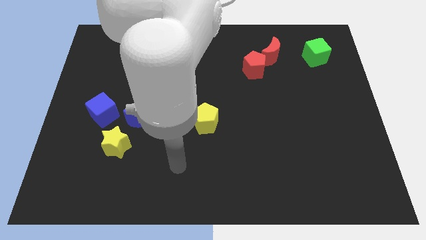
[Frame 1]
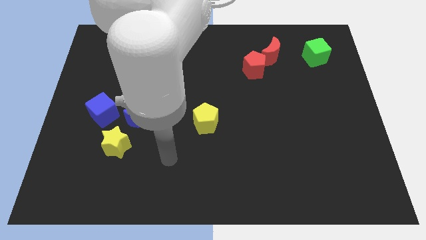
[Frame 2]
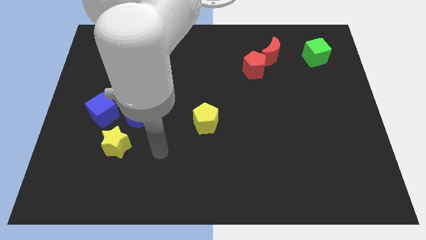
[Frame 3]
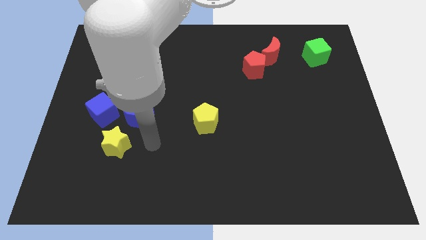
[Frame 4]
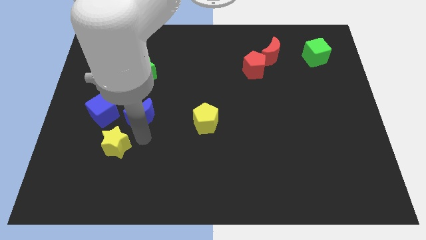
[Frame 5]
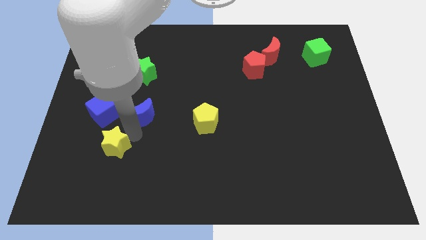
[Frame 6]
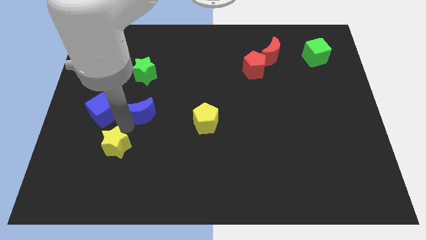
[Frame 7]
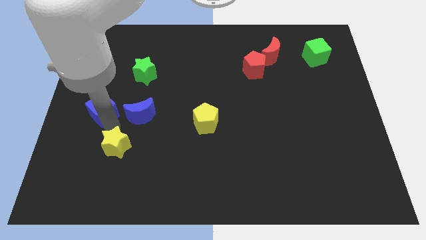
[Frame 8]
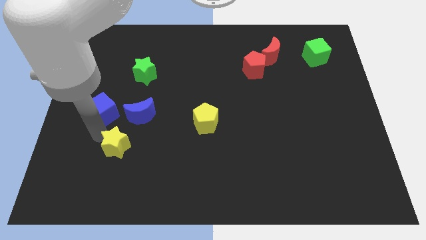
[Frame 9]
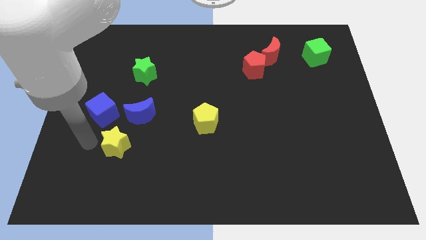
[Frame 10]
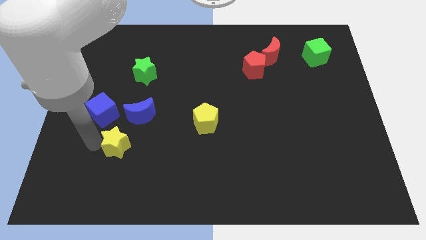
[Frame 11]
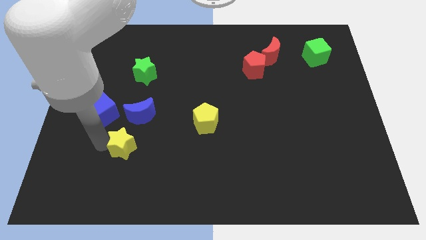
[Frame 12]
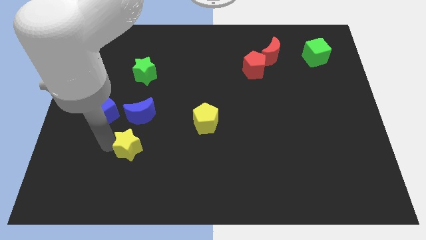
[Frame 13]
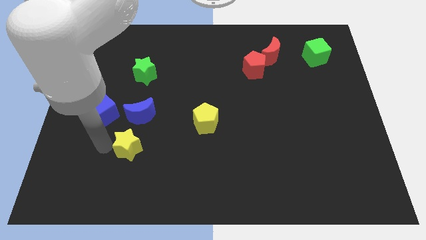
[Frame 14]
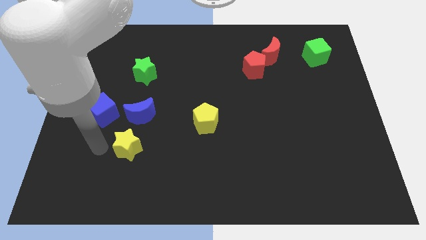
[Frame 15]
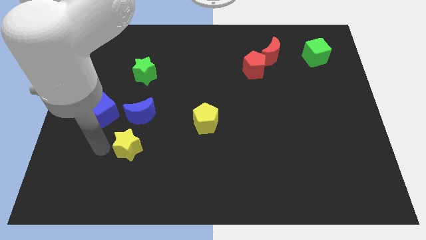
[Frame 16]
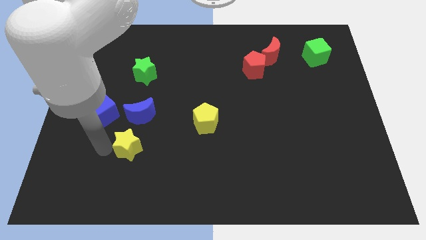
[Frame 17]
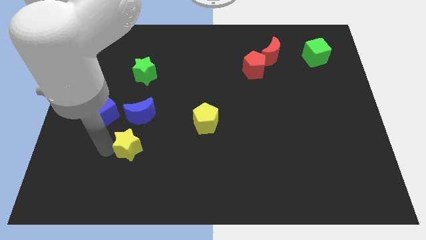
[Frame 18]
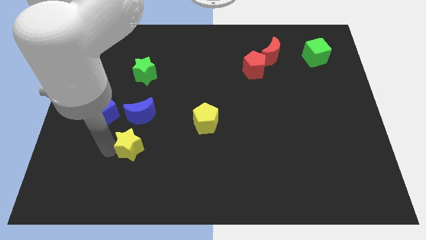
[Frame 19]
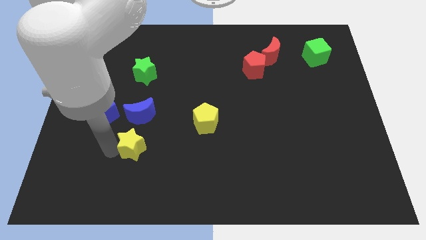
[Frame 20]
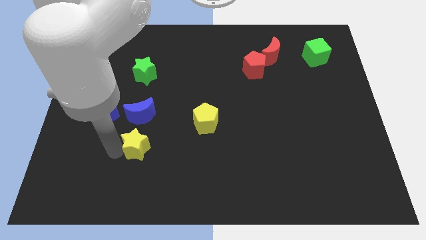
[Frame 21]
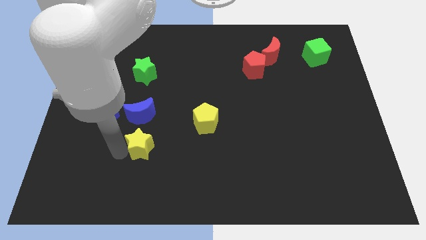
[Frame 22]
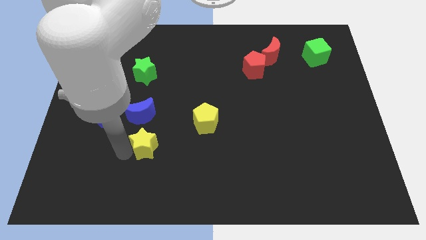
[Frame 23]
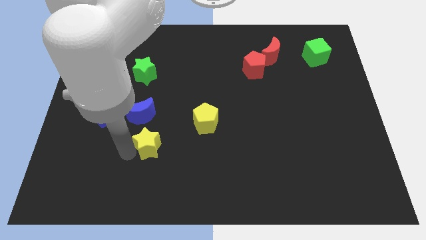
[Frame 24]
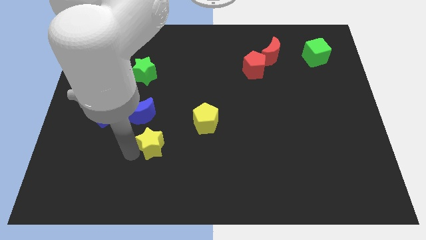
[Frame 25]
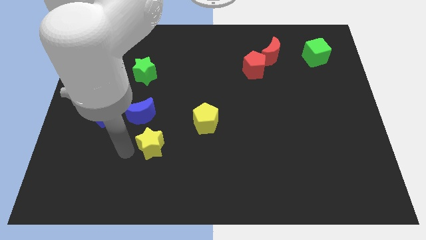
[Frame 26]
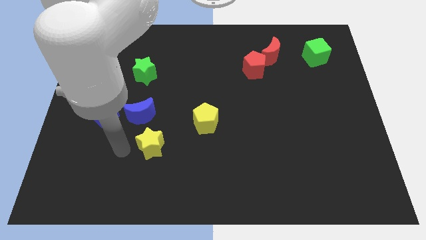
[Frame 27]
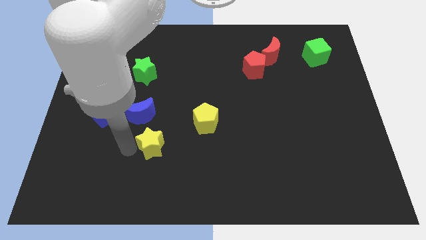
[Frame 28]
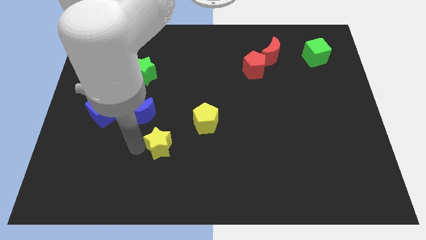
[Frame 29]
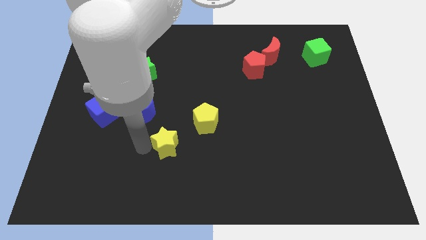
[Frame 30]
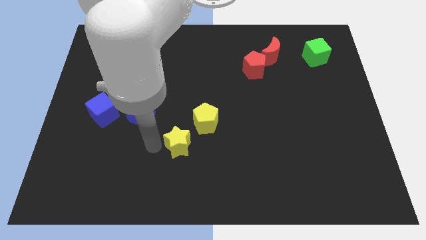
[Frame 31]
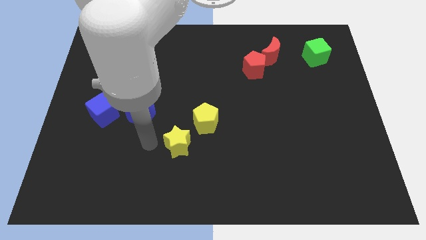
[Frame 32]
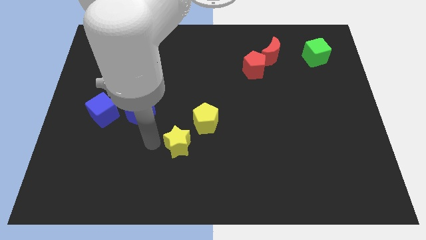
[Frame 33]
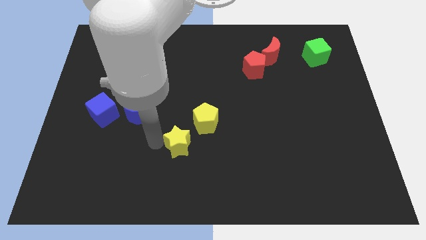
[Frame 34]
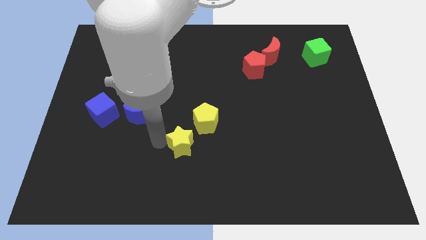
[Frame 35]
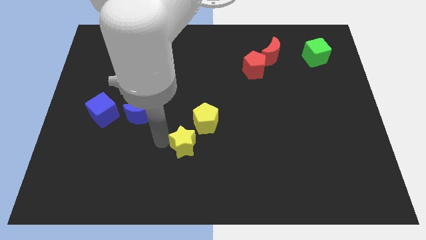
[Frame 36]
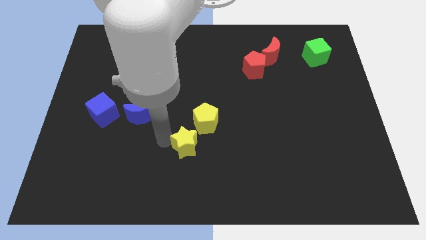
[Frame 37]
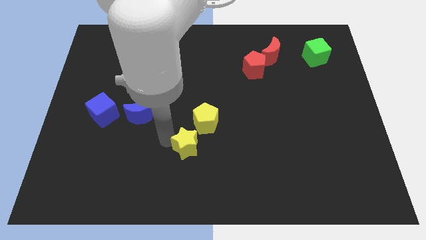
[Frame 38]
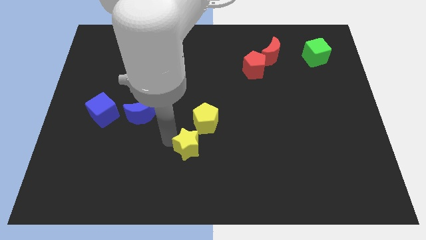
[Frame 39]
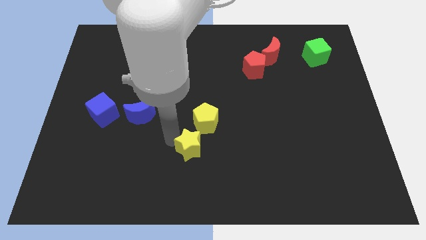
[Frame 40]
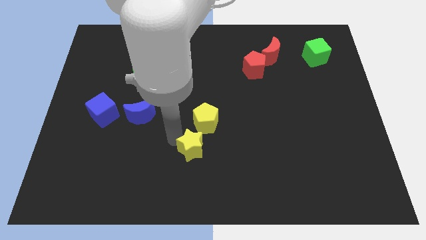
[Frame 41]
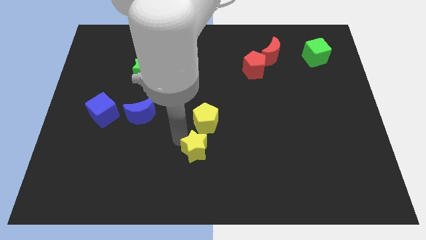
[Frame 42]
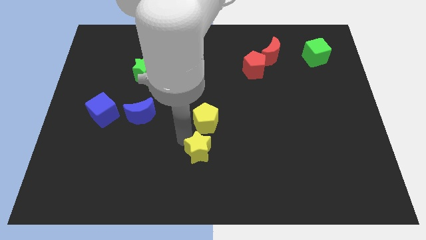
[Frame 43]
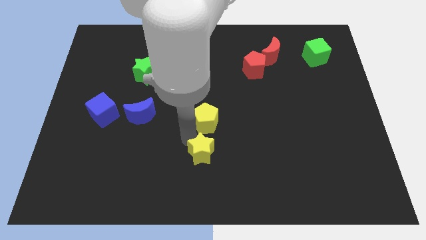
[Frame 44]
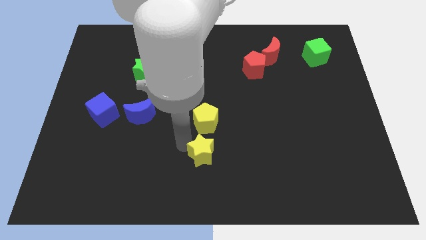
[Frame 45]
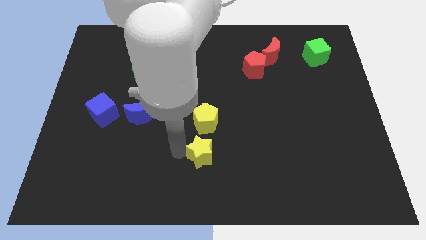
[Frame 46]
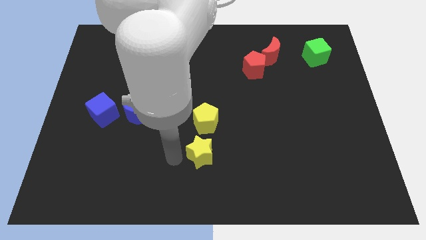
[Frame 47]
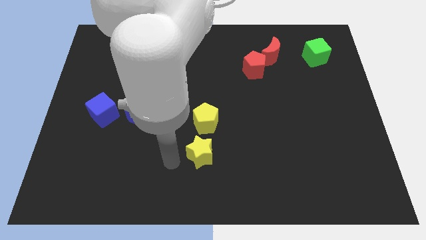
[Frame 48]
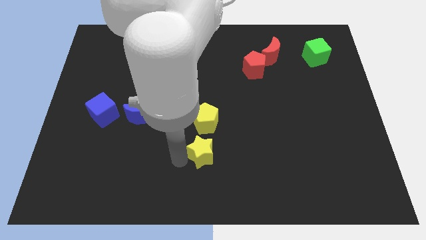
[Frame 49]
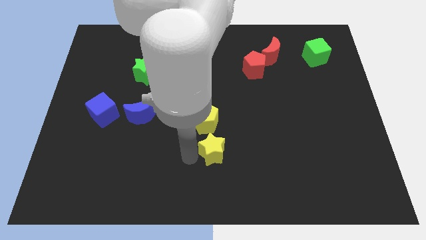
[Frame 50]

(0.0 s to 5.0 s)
push the yellow star right

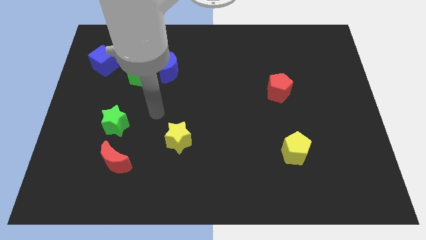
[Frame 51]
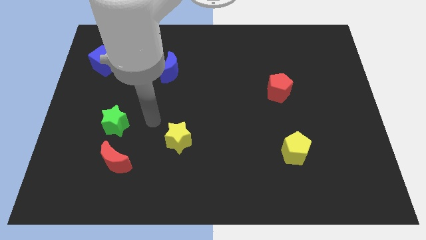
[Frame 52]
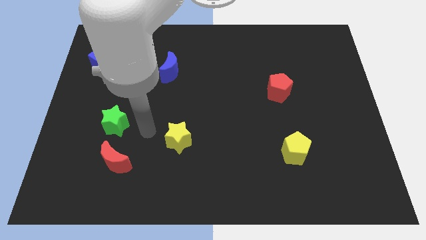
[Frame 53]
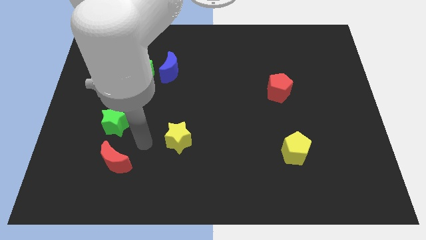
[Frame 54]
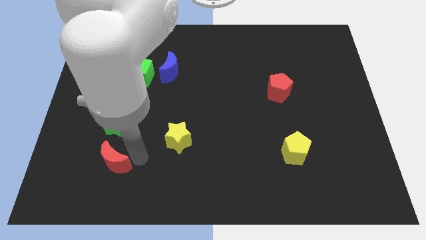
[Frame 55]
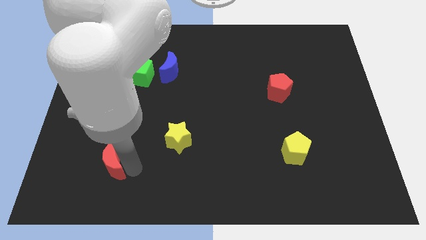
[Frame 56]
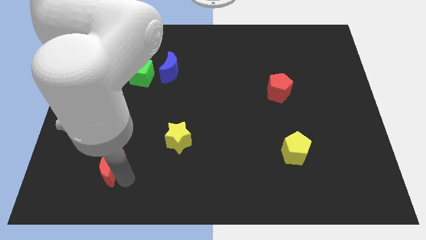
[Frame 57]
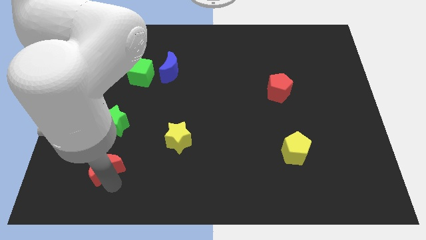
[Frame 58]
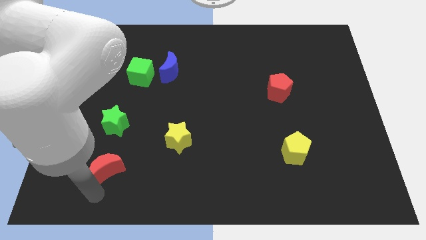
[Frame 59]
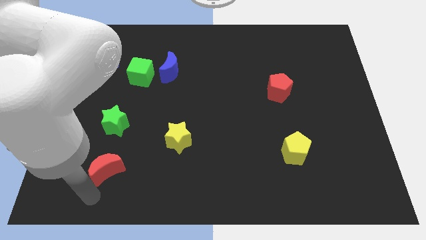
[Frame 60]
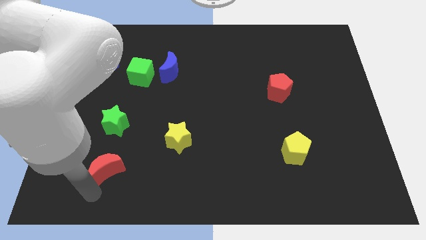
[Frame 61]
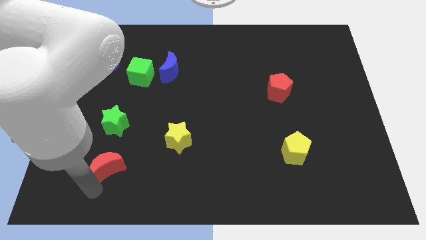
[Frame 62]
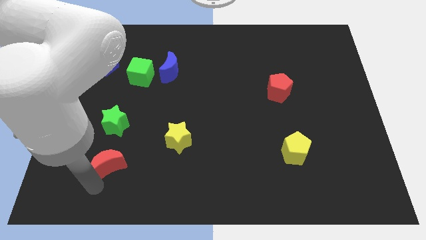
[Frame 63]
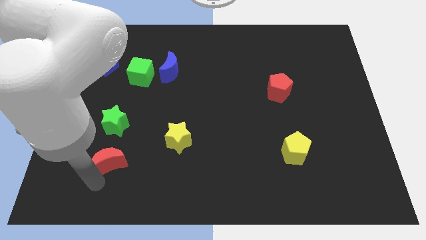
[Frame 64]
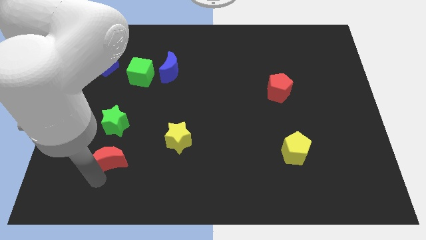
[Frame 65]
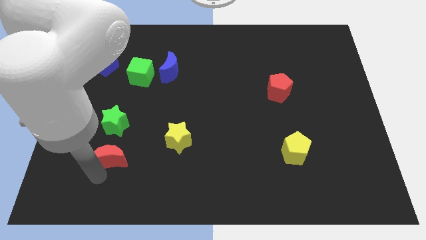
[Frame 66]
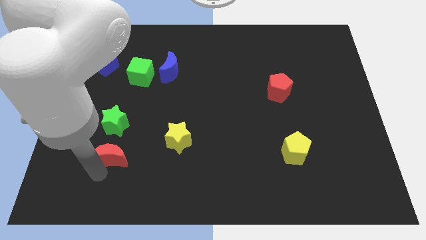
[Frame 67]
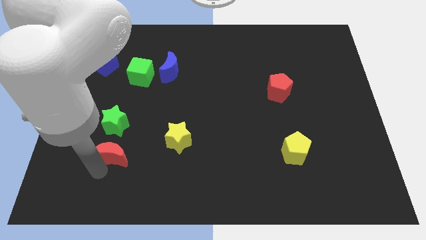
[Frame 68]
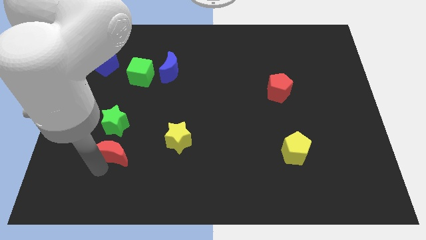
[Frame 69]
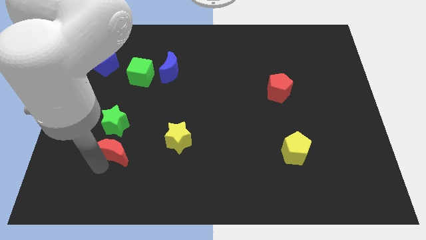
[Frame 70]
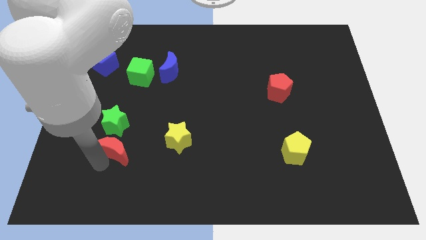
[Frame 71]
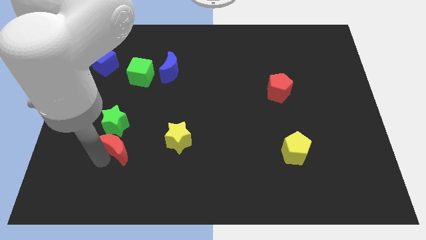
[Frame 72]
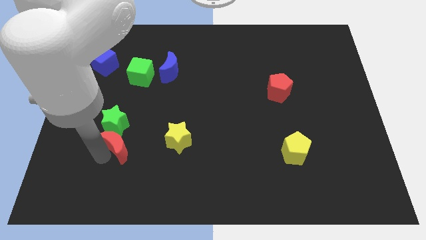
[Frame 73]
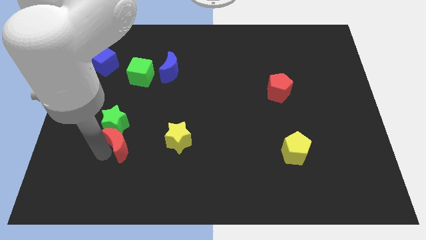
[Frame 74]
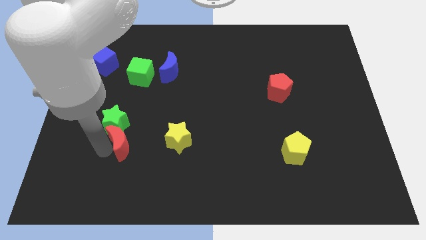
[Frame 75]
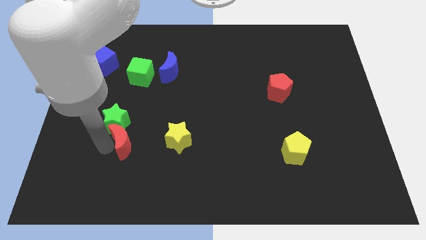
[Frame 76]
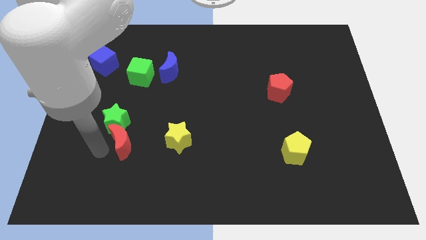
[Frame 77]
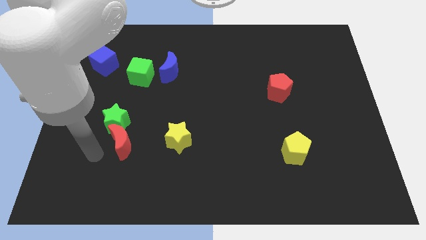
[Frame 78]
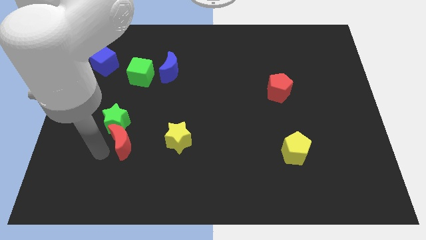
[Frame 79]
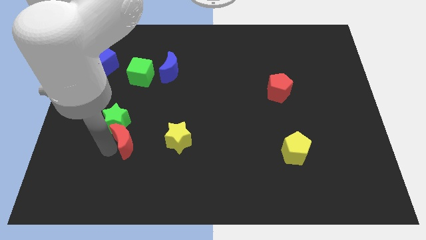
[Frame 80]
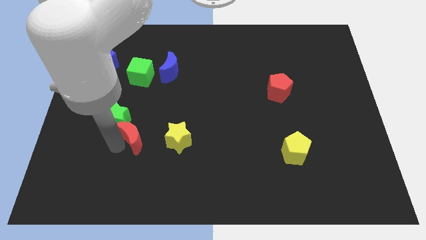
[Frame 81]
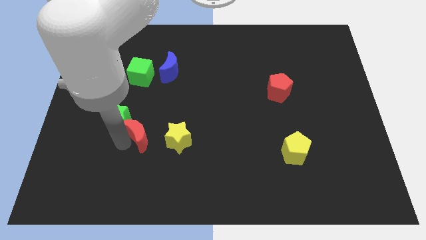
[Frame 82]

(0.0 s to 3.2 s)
move the red moon somewhat up and right diagonally

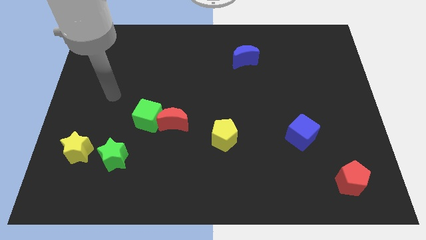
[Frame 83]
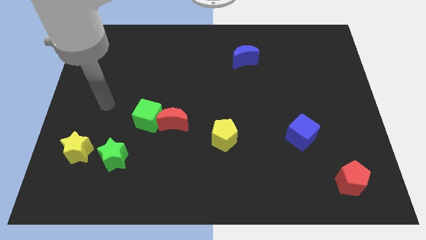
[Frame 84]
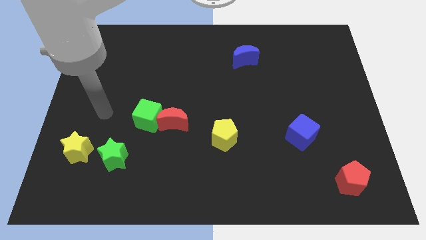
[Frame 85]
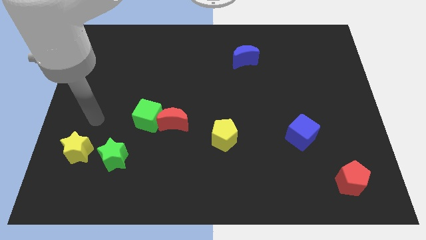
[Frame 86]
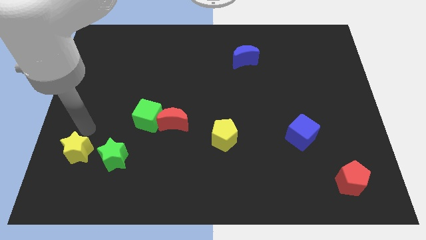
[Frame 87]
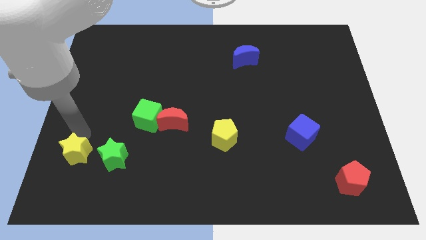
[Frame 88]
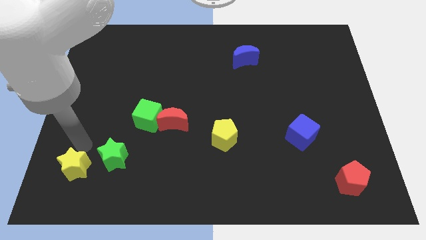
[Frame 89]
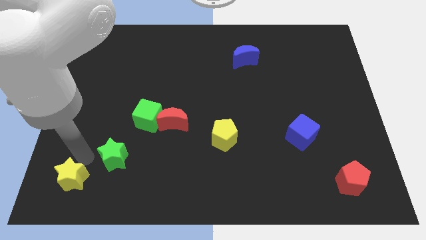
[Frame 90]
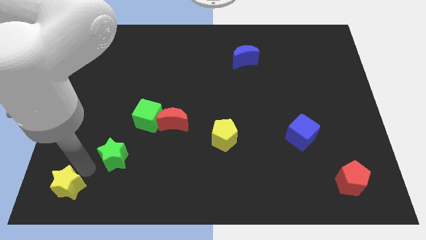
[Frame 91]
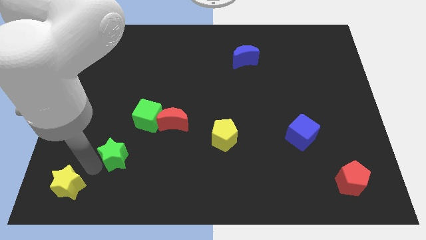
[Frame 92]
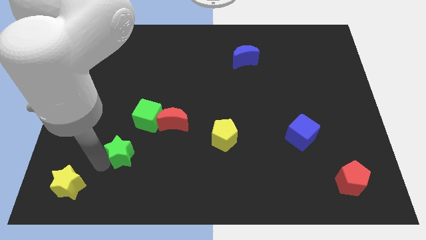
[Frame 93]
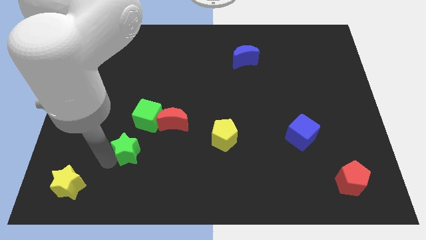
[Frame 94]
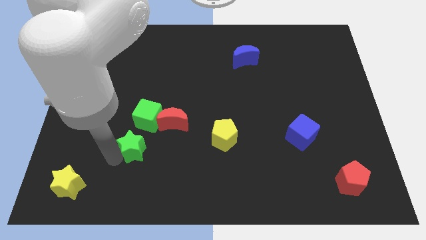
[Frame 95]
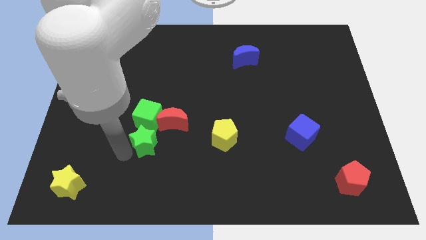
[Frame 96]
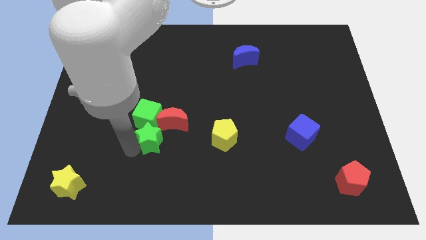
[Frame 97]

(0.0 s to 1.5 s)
move the green star upwards and then right a little
